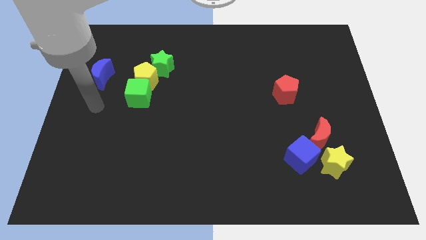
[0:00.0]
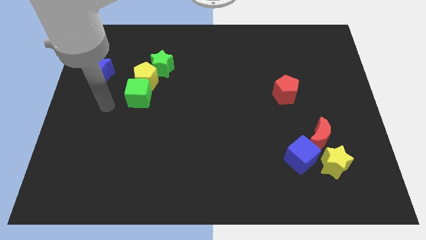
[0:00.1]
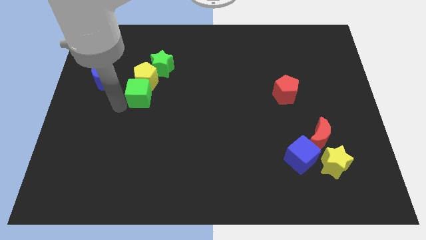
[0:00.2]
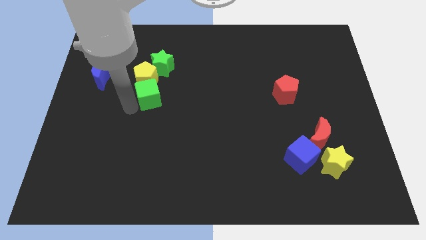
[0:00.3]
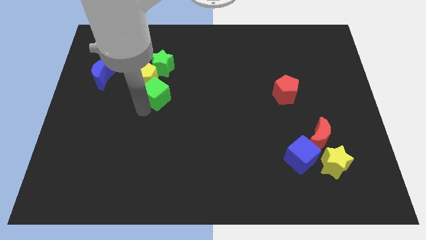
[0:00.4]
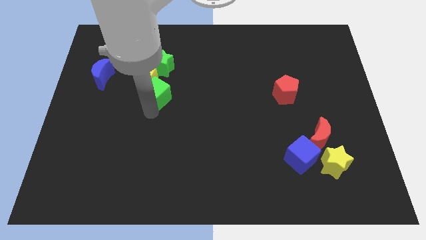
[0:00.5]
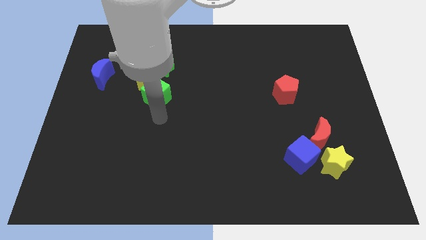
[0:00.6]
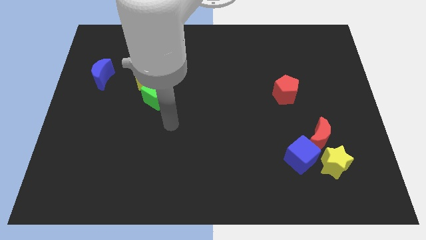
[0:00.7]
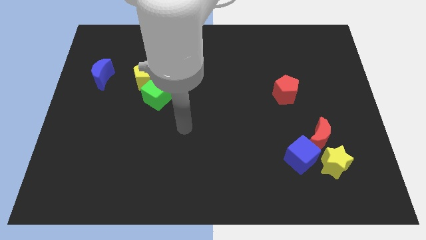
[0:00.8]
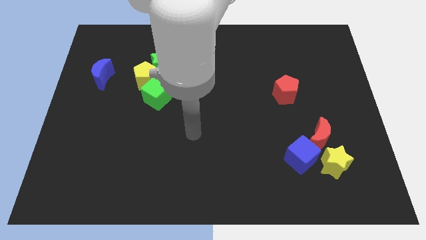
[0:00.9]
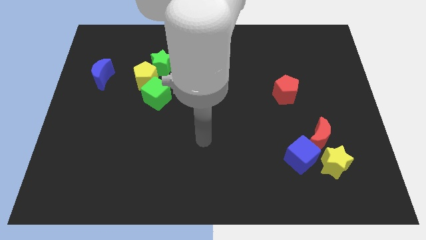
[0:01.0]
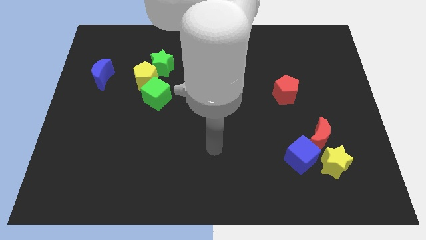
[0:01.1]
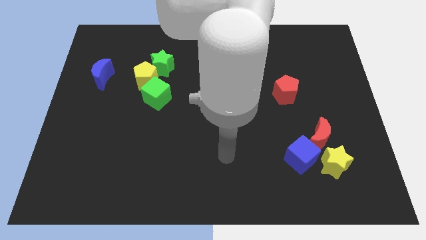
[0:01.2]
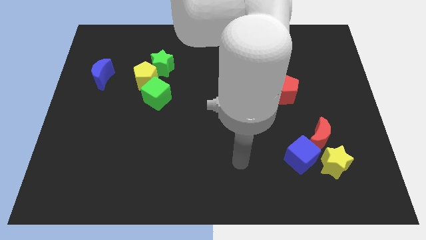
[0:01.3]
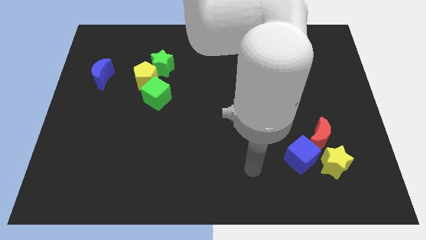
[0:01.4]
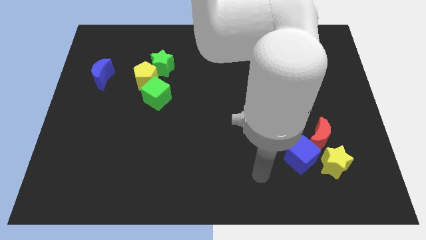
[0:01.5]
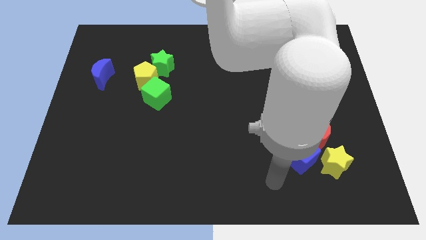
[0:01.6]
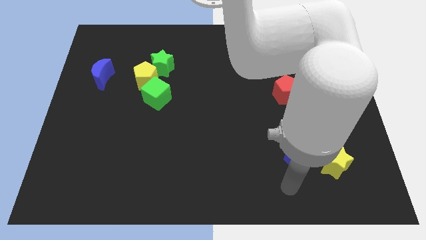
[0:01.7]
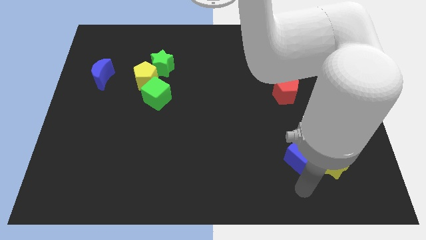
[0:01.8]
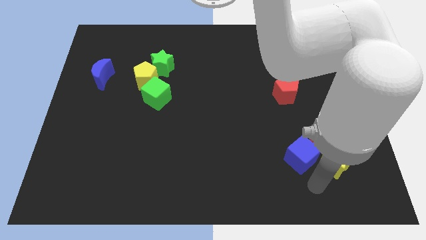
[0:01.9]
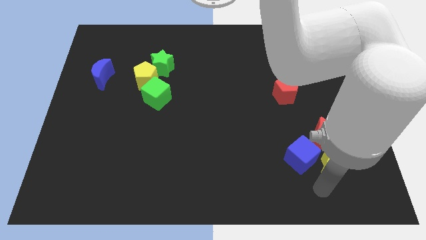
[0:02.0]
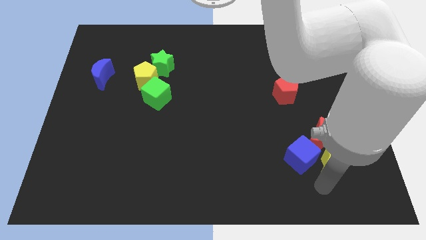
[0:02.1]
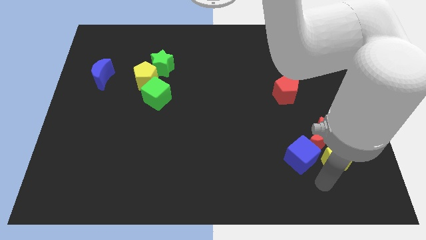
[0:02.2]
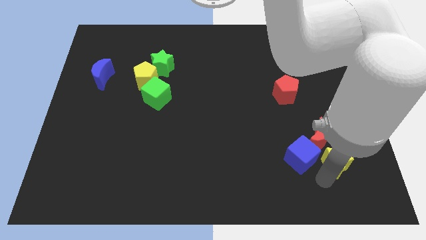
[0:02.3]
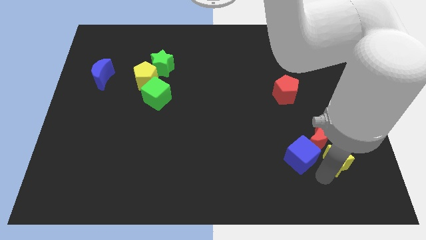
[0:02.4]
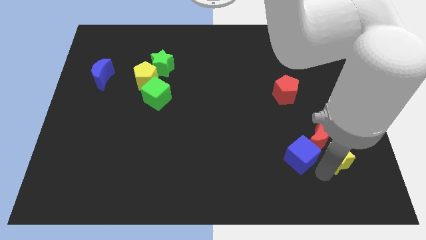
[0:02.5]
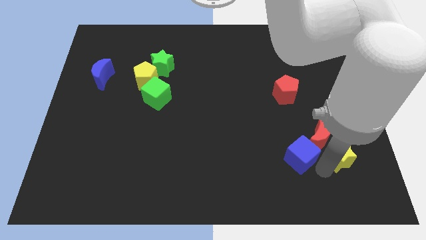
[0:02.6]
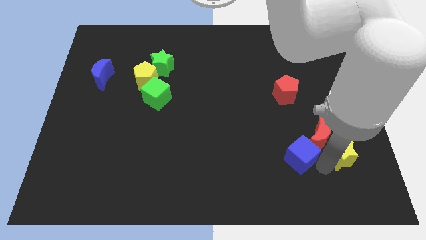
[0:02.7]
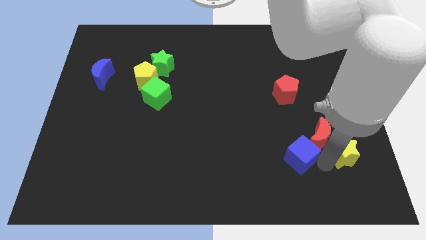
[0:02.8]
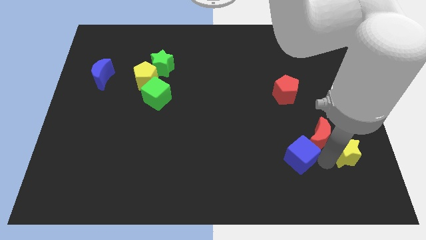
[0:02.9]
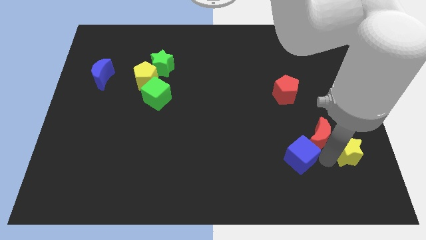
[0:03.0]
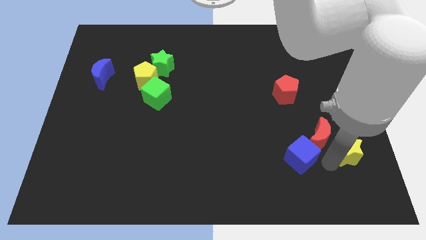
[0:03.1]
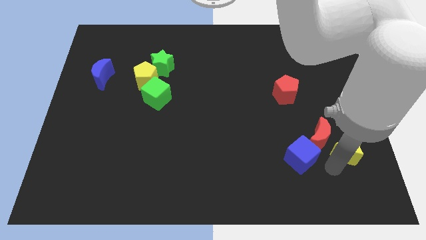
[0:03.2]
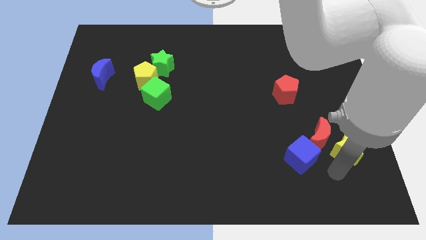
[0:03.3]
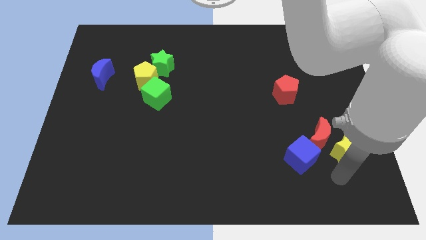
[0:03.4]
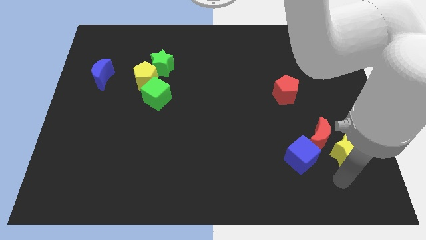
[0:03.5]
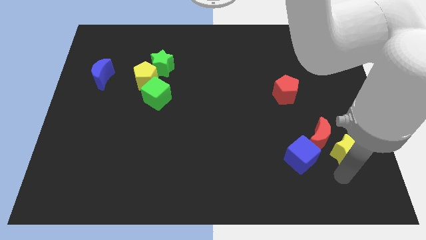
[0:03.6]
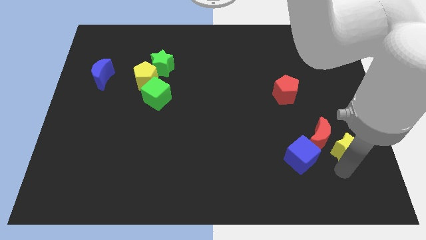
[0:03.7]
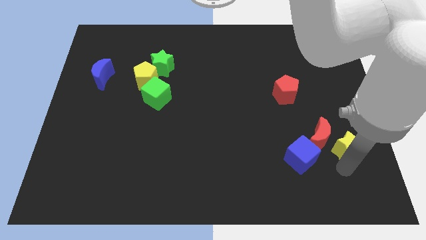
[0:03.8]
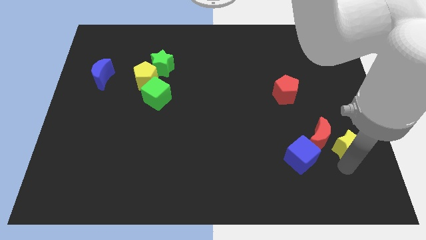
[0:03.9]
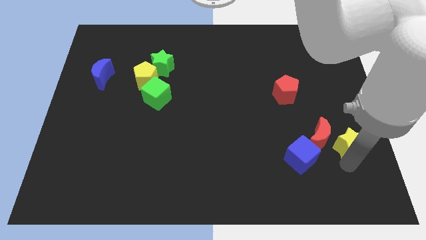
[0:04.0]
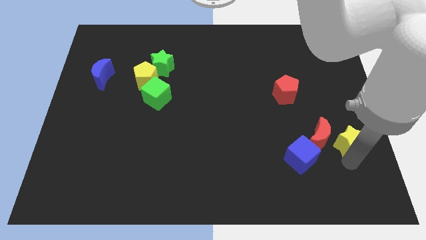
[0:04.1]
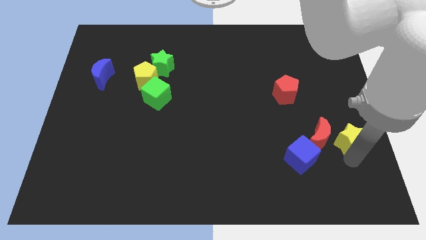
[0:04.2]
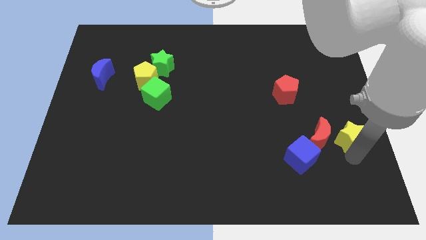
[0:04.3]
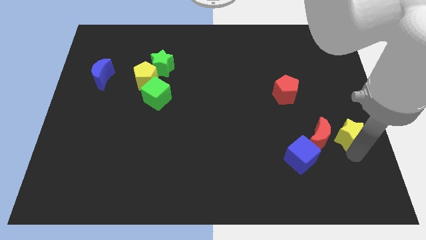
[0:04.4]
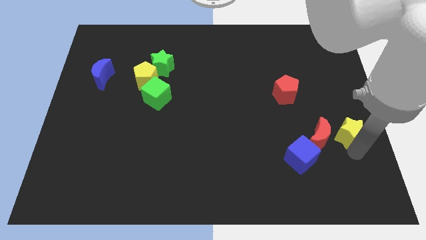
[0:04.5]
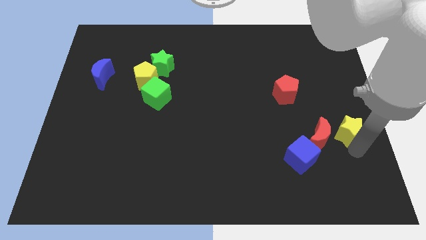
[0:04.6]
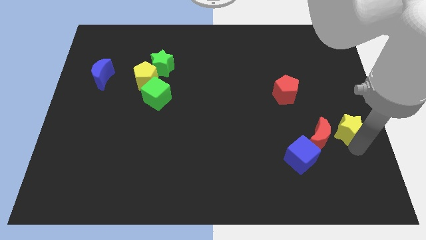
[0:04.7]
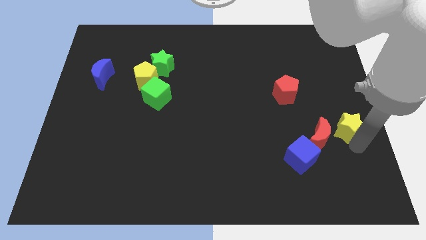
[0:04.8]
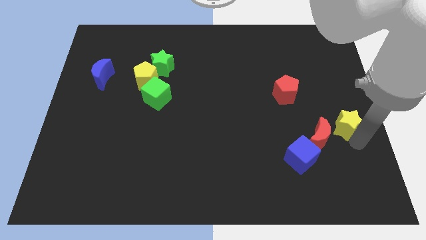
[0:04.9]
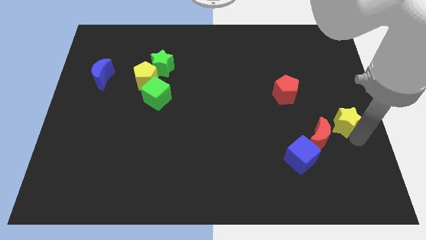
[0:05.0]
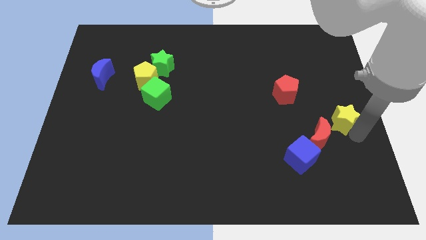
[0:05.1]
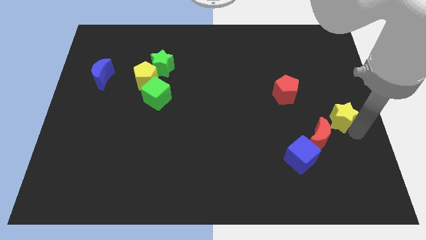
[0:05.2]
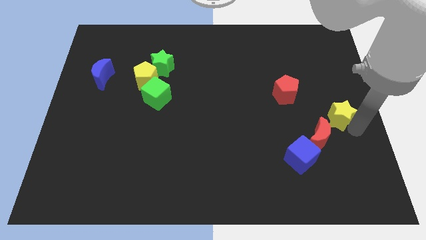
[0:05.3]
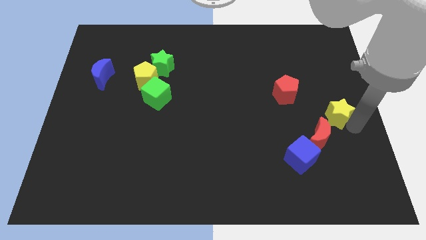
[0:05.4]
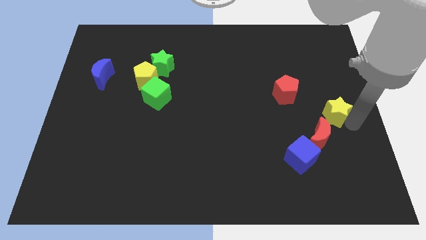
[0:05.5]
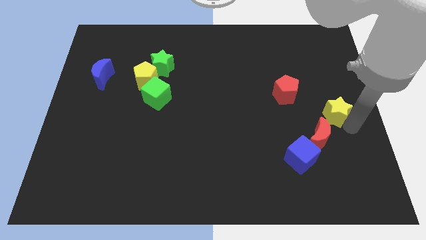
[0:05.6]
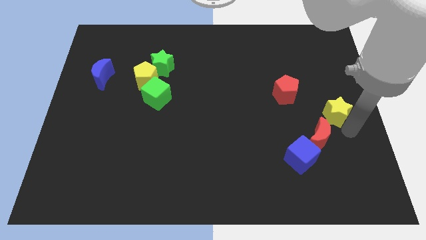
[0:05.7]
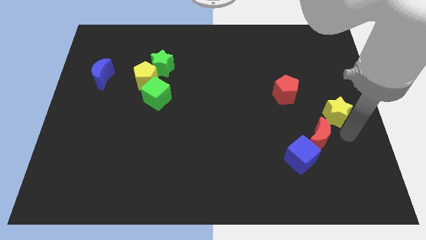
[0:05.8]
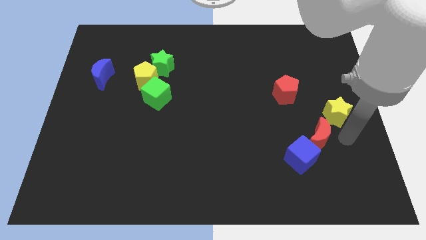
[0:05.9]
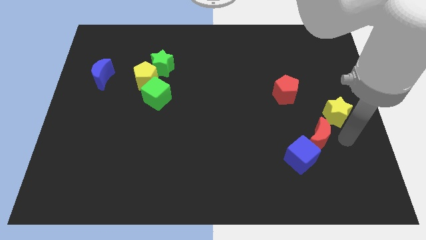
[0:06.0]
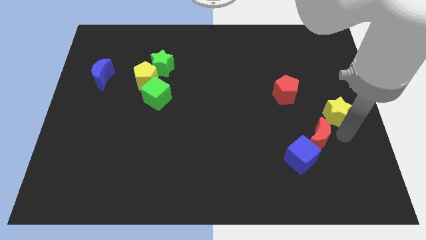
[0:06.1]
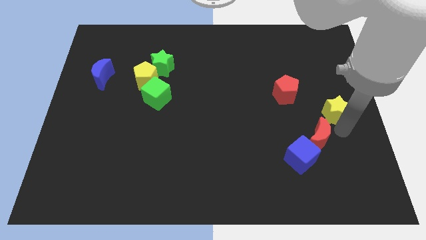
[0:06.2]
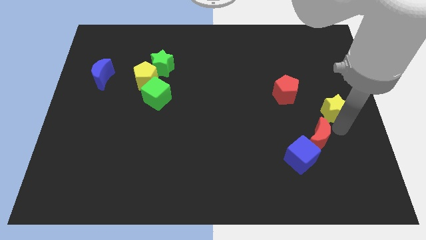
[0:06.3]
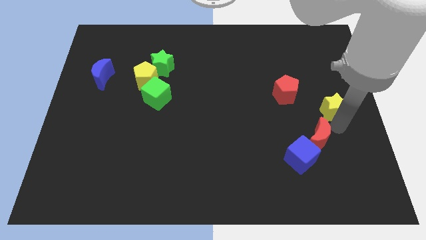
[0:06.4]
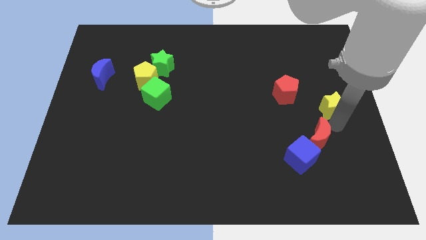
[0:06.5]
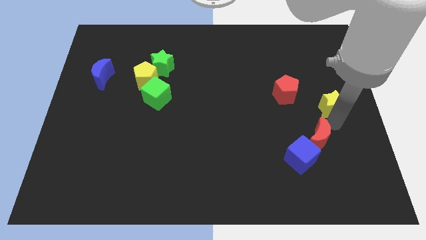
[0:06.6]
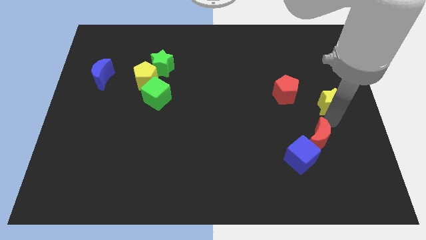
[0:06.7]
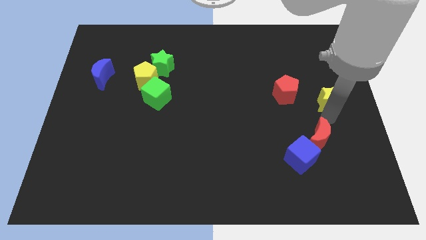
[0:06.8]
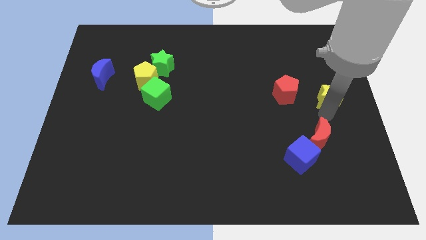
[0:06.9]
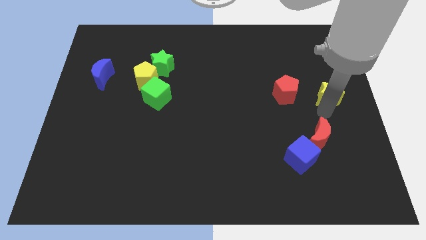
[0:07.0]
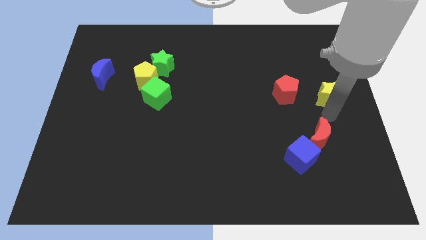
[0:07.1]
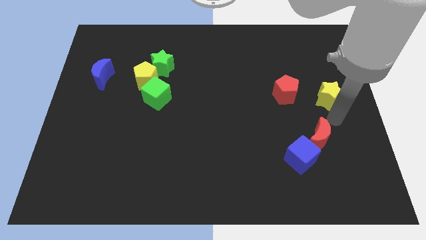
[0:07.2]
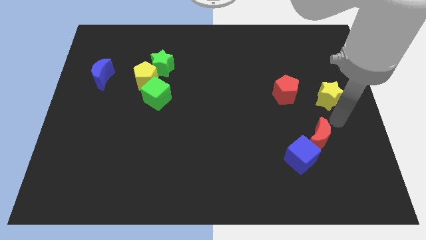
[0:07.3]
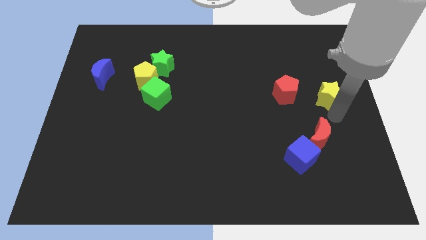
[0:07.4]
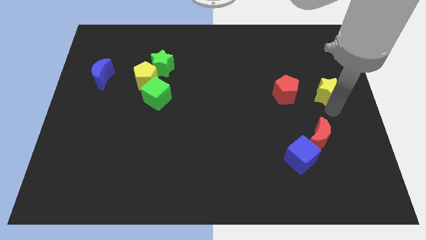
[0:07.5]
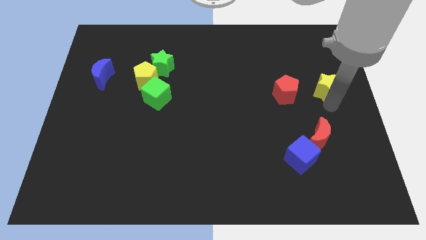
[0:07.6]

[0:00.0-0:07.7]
slide the yellow star upwards

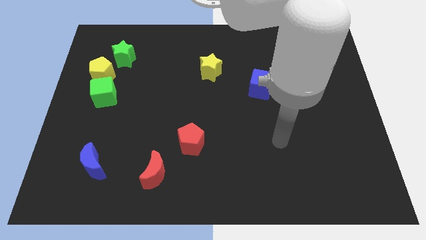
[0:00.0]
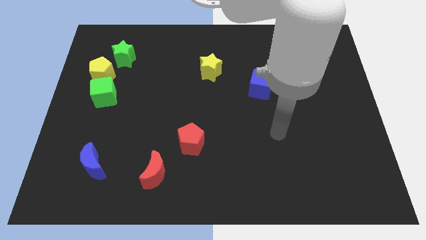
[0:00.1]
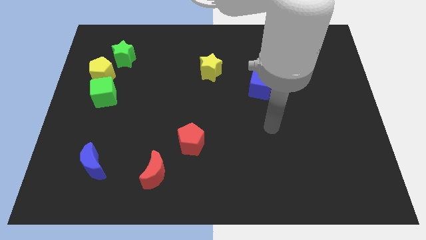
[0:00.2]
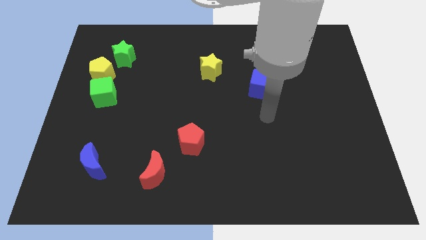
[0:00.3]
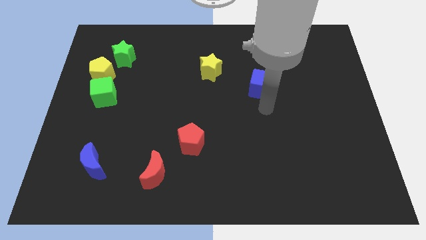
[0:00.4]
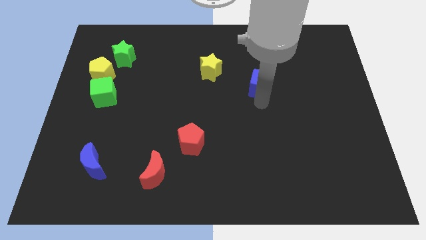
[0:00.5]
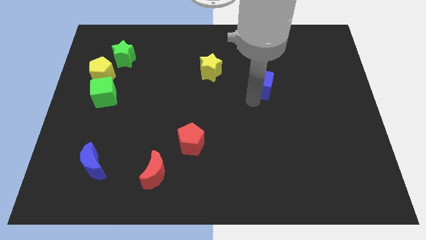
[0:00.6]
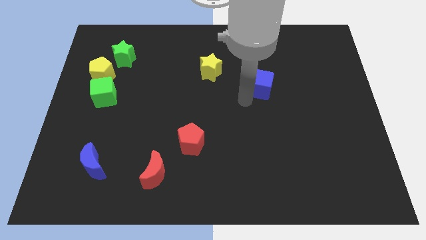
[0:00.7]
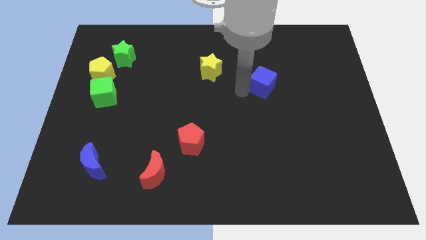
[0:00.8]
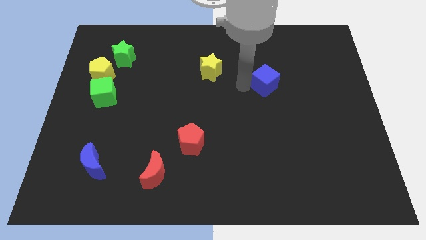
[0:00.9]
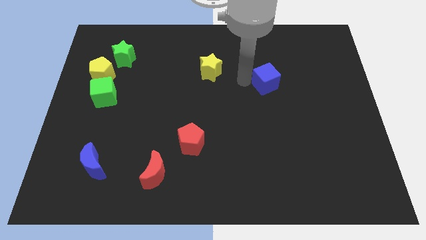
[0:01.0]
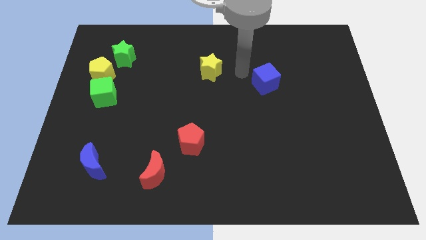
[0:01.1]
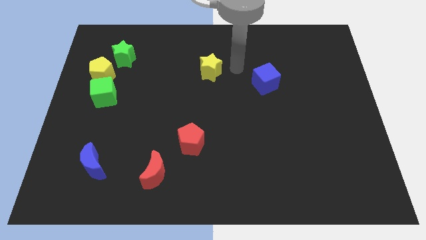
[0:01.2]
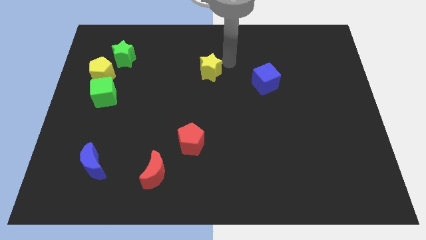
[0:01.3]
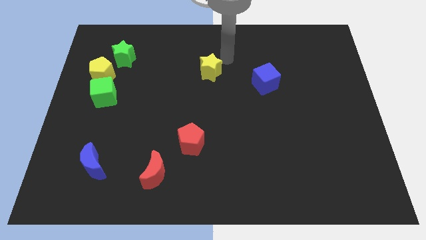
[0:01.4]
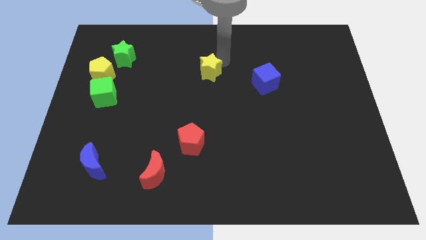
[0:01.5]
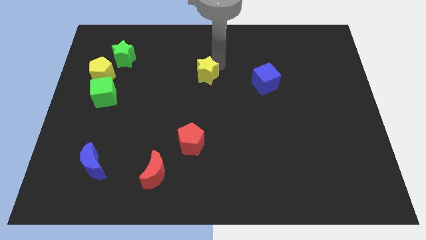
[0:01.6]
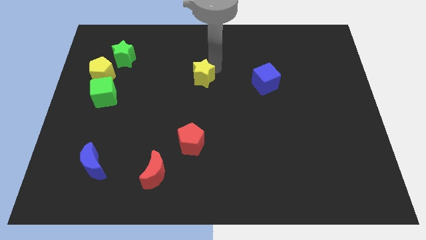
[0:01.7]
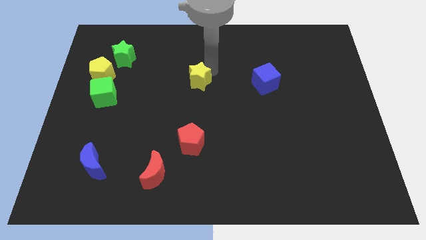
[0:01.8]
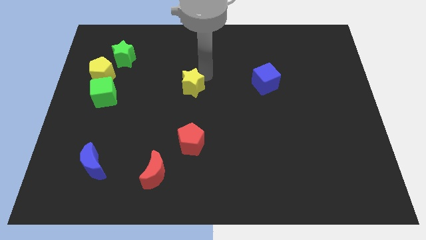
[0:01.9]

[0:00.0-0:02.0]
push the yellow star down and to the left diagonally slightly
